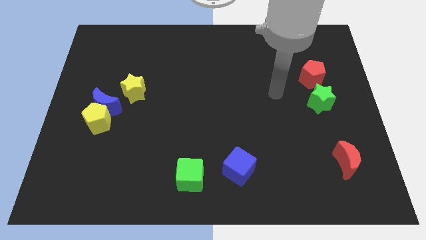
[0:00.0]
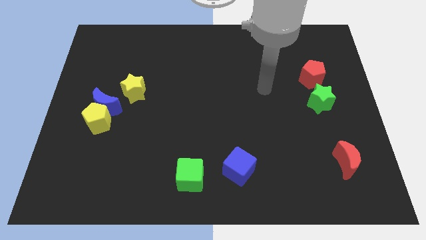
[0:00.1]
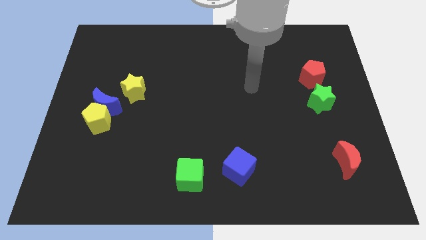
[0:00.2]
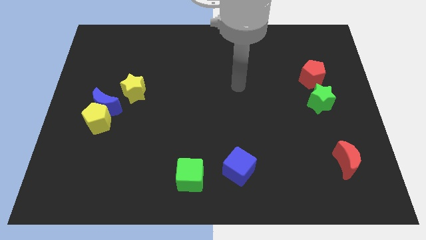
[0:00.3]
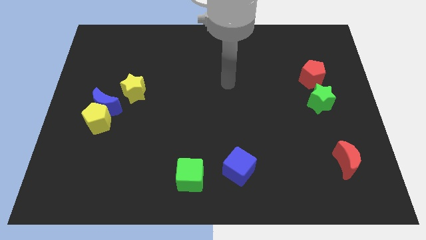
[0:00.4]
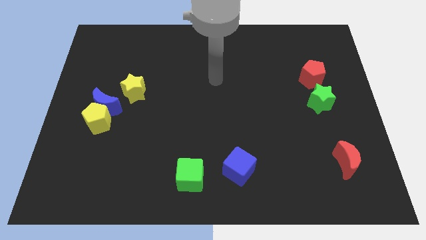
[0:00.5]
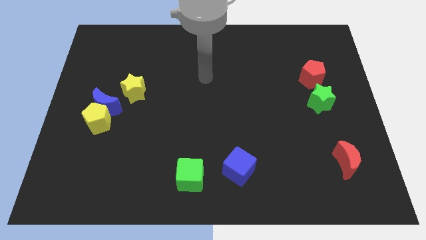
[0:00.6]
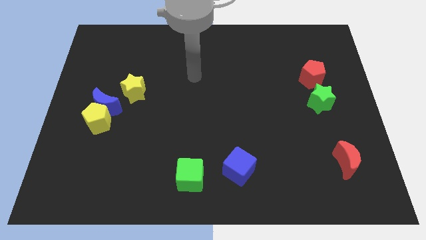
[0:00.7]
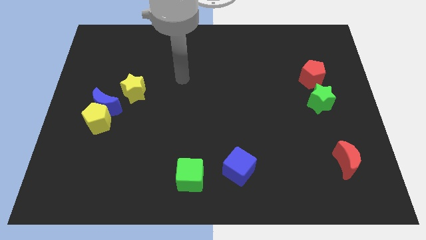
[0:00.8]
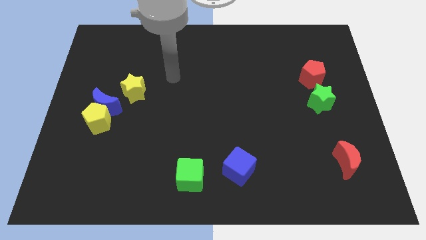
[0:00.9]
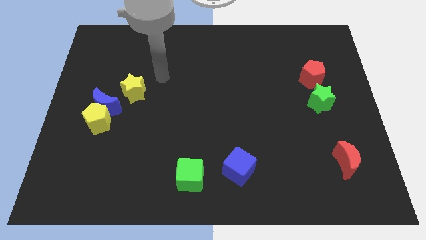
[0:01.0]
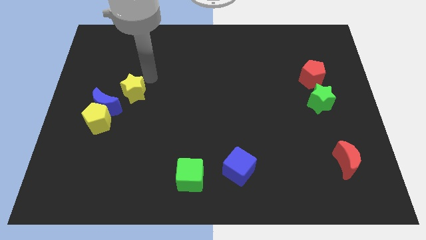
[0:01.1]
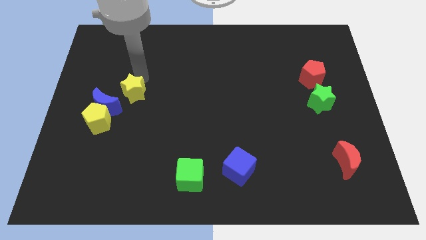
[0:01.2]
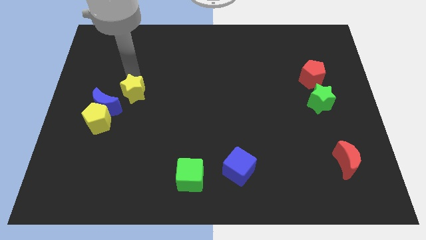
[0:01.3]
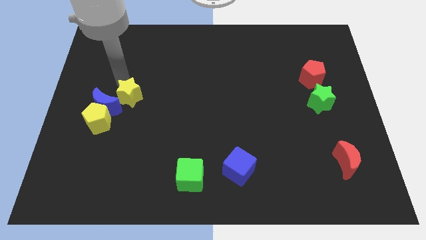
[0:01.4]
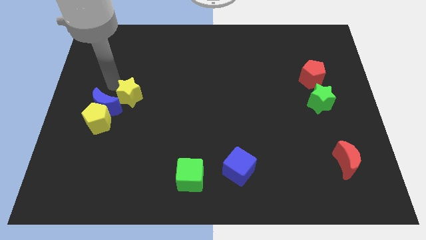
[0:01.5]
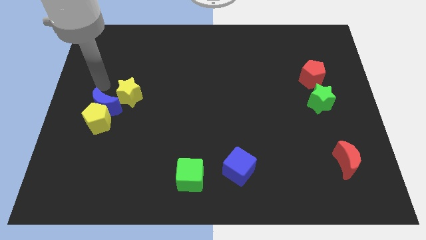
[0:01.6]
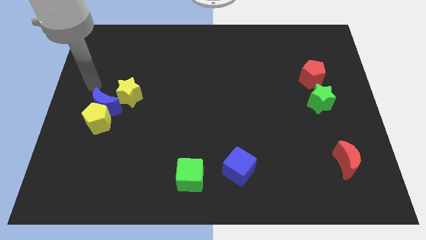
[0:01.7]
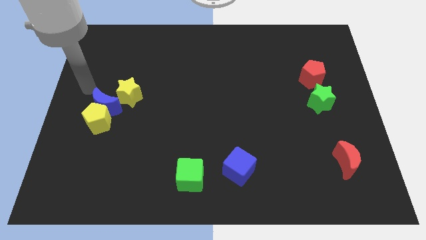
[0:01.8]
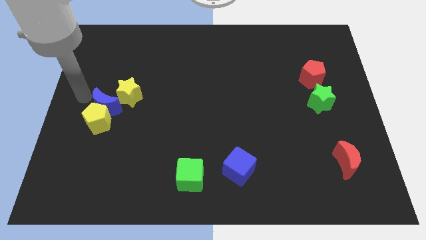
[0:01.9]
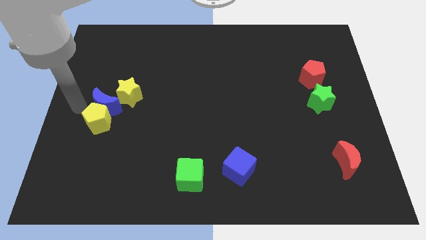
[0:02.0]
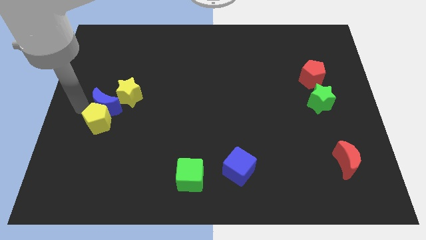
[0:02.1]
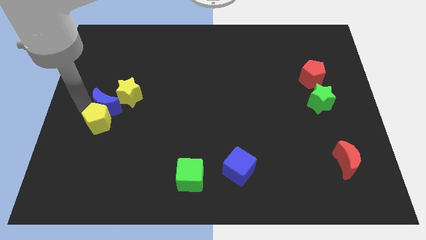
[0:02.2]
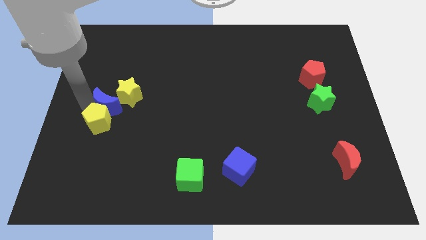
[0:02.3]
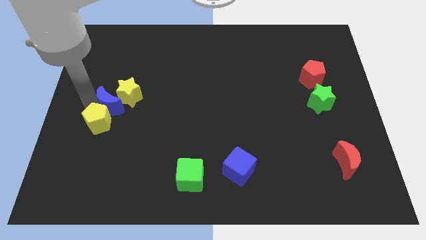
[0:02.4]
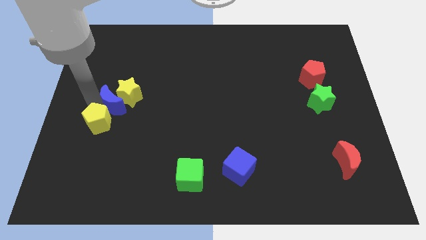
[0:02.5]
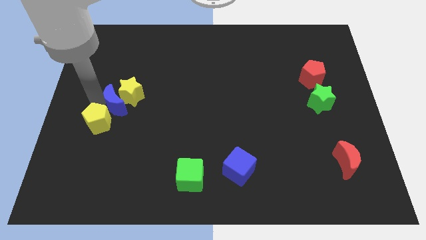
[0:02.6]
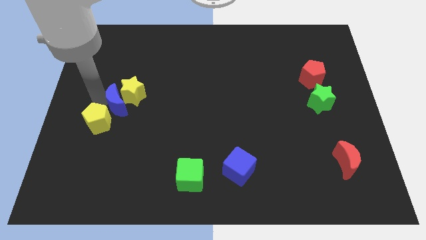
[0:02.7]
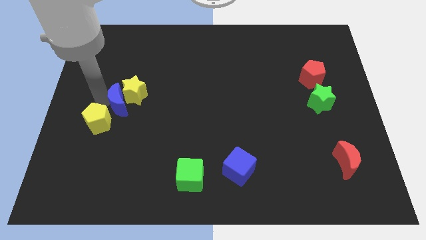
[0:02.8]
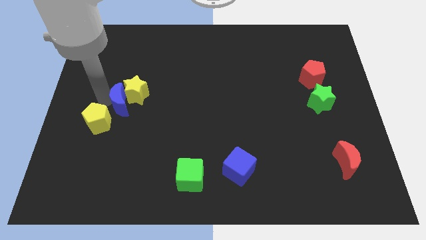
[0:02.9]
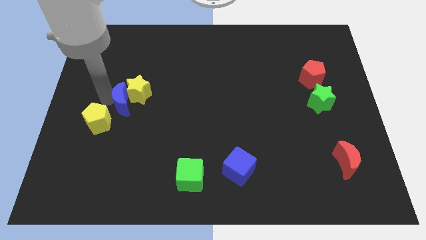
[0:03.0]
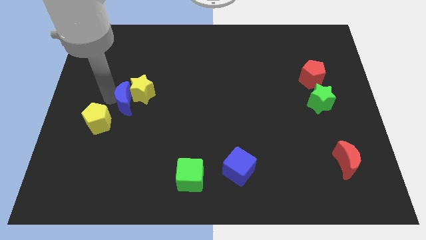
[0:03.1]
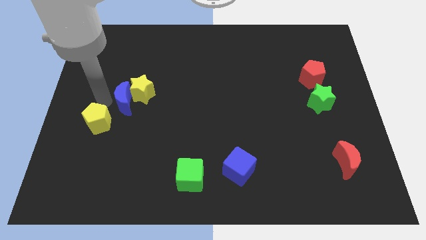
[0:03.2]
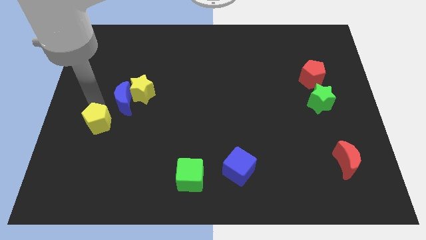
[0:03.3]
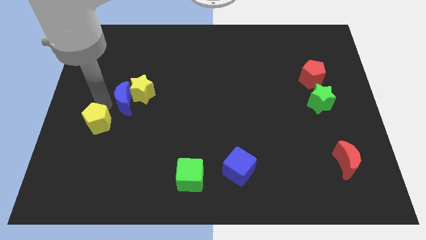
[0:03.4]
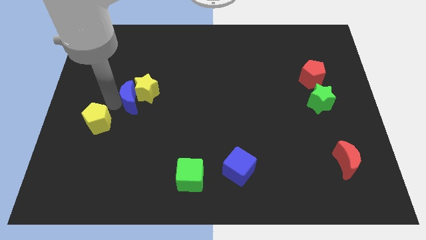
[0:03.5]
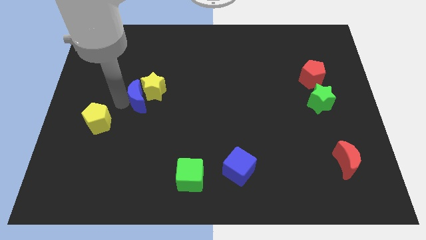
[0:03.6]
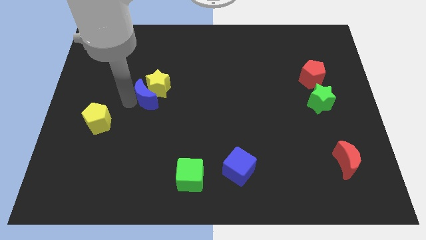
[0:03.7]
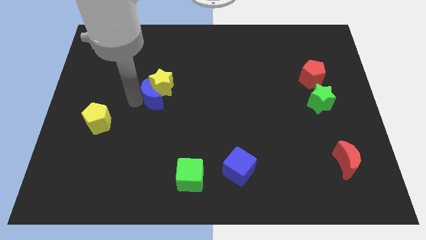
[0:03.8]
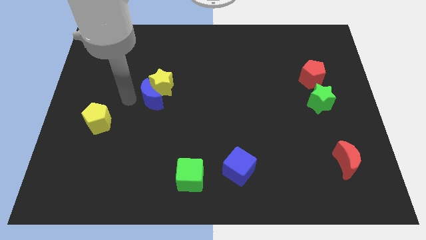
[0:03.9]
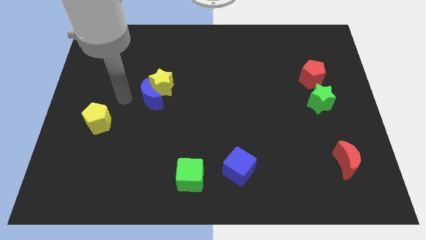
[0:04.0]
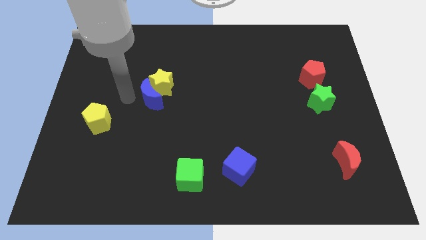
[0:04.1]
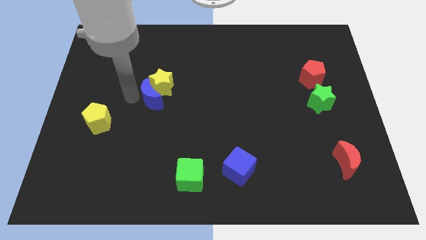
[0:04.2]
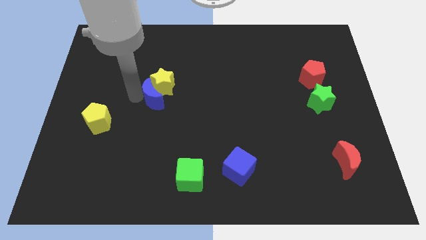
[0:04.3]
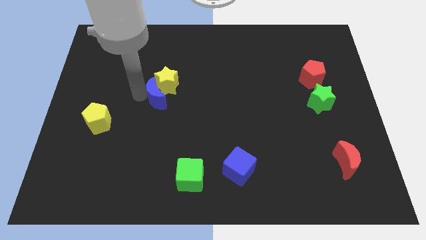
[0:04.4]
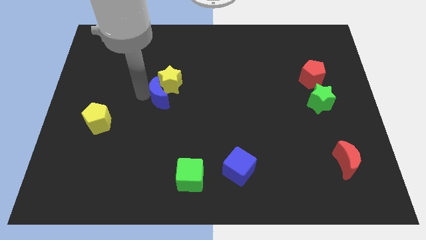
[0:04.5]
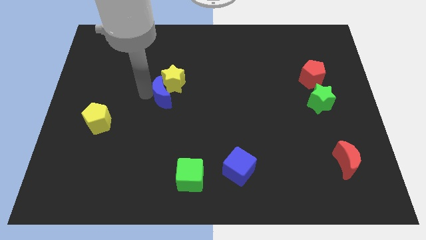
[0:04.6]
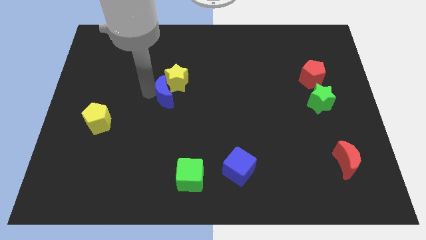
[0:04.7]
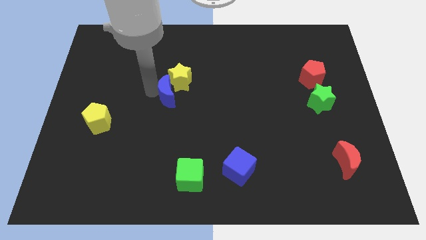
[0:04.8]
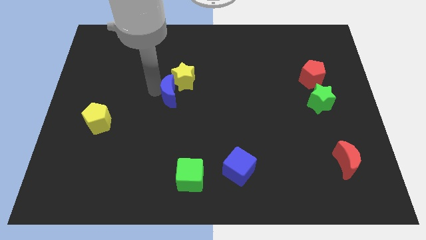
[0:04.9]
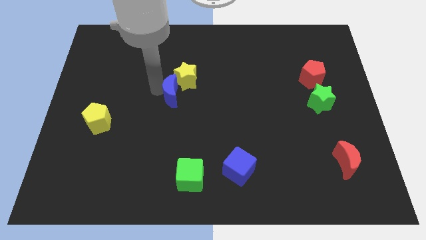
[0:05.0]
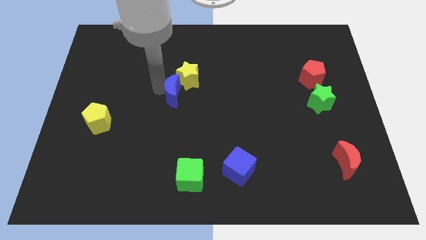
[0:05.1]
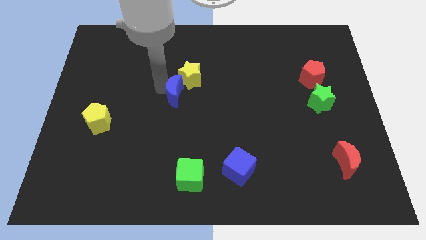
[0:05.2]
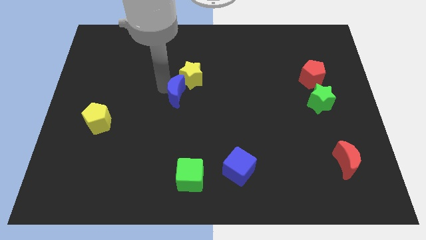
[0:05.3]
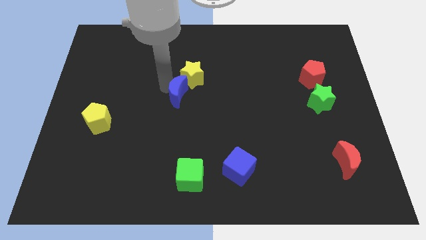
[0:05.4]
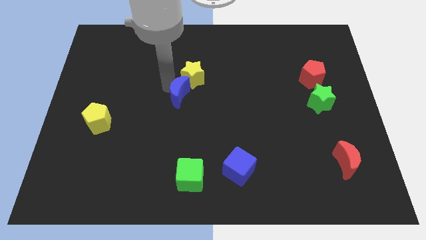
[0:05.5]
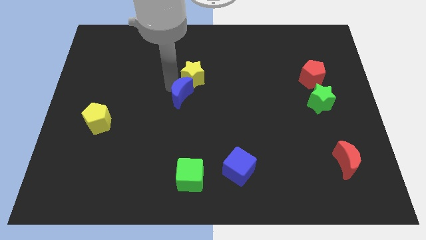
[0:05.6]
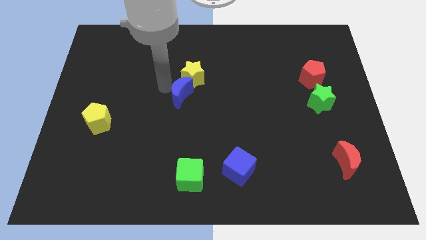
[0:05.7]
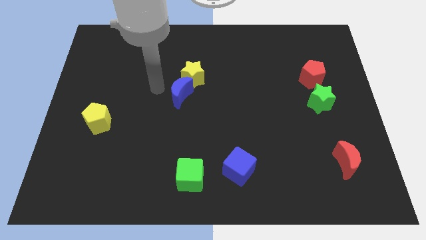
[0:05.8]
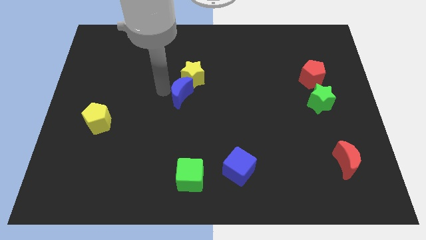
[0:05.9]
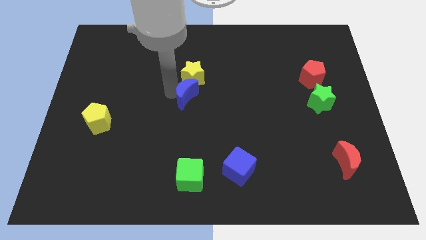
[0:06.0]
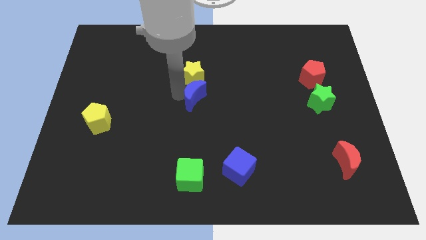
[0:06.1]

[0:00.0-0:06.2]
slide the blue moon to the right

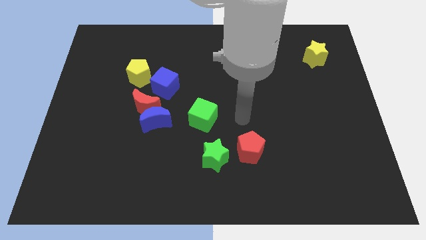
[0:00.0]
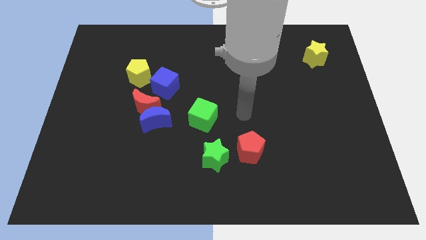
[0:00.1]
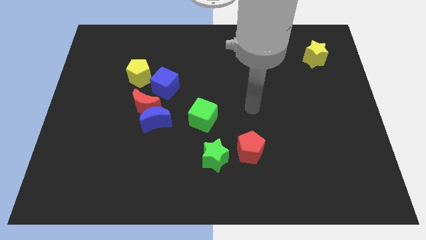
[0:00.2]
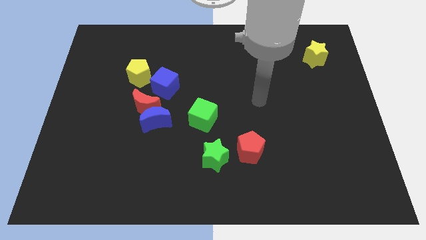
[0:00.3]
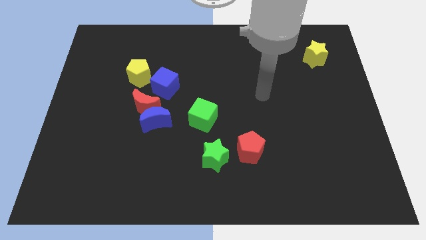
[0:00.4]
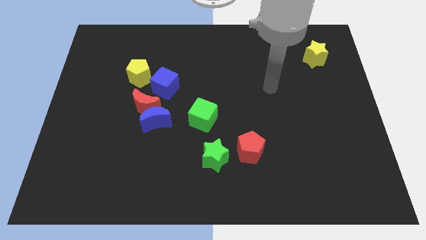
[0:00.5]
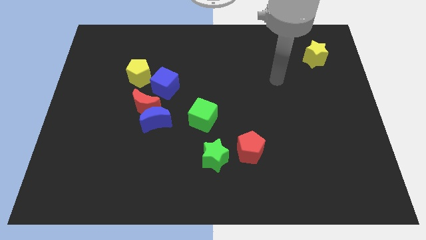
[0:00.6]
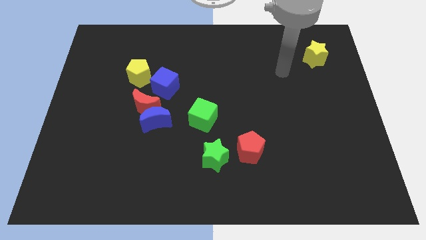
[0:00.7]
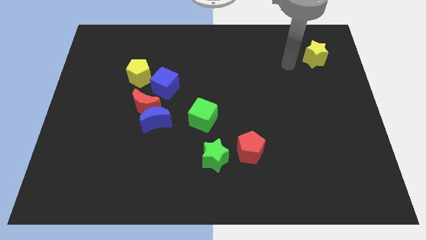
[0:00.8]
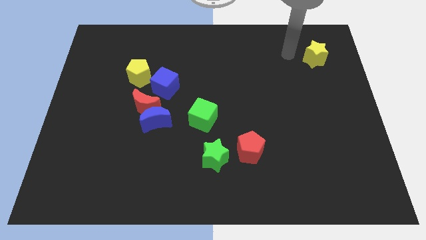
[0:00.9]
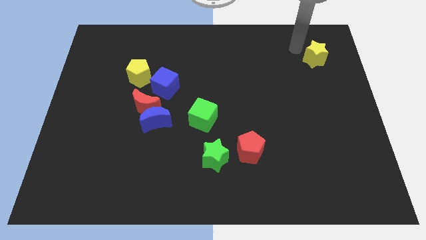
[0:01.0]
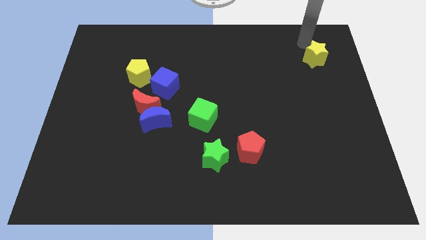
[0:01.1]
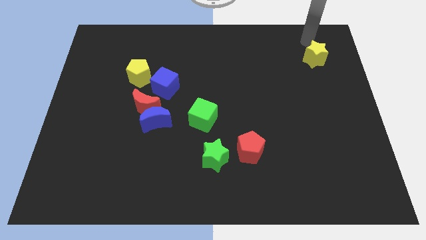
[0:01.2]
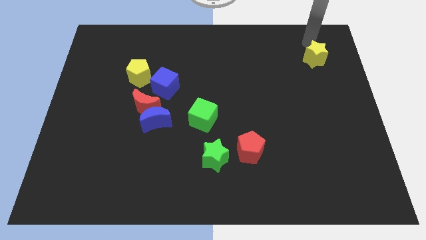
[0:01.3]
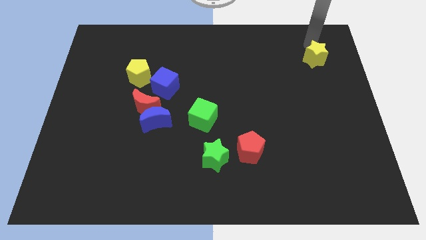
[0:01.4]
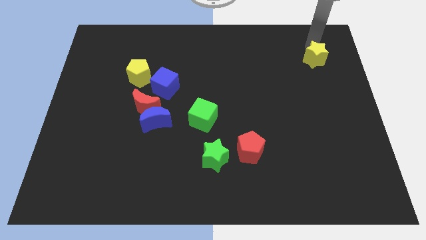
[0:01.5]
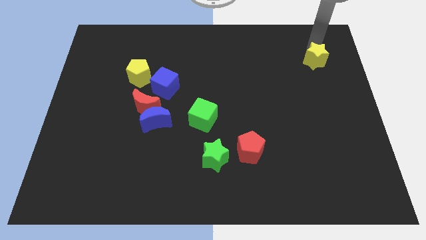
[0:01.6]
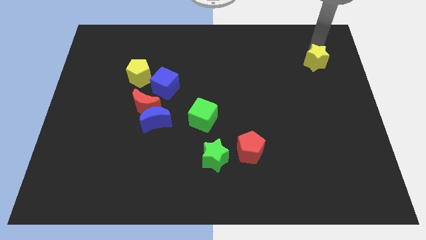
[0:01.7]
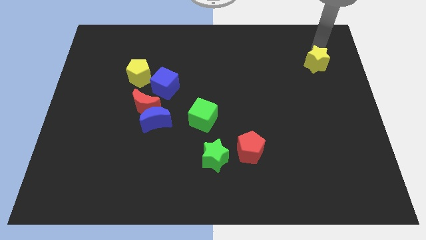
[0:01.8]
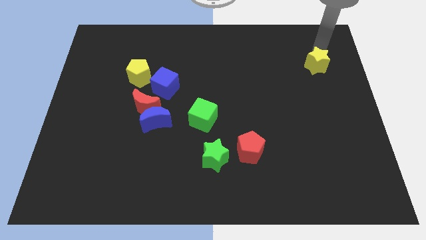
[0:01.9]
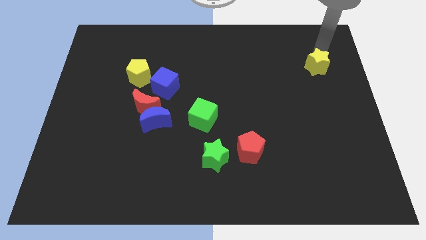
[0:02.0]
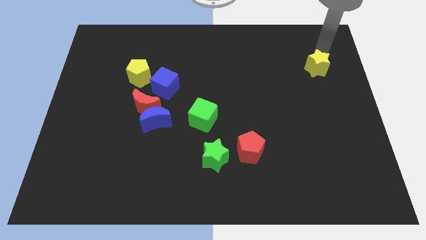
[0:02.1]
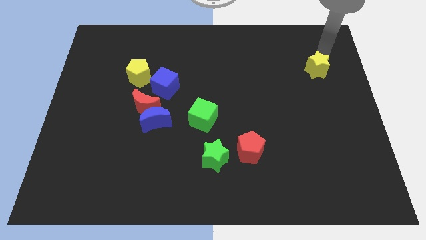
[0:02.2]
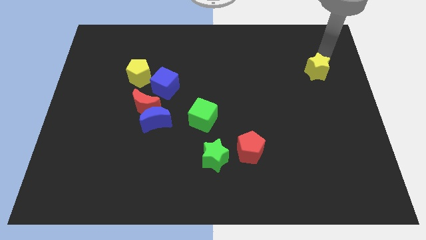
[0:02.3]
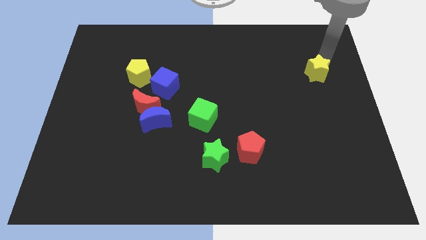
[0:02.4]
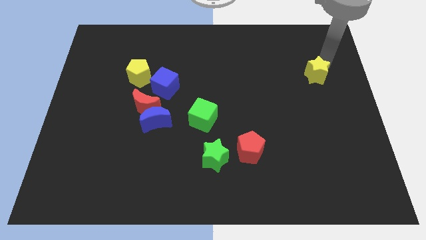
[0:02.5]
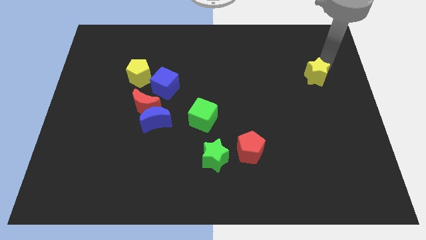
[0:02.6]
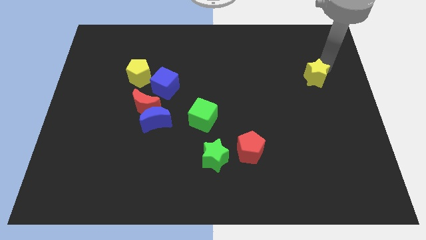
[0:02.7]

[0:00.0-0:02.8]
slide the yellow star a little down
